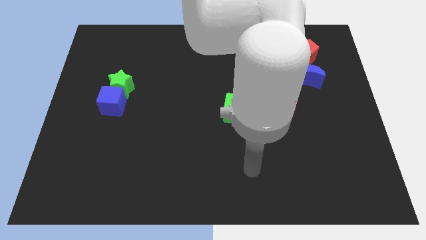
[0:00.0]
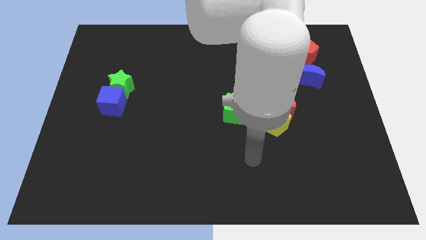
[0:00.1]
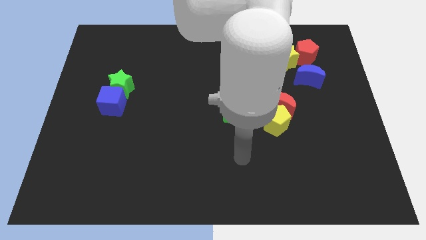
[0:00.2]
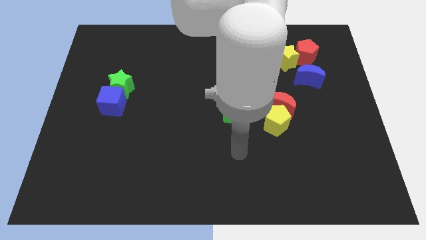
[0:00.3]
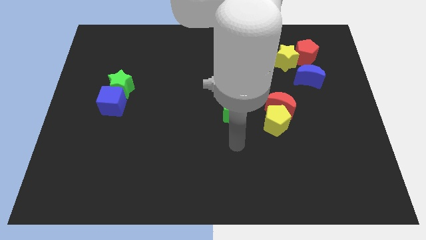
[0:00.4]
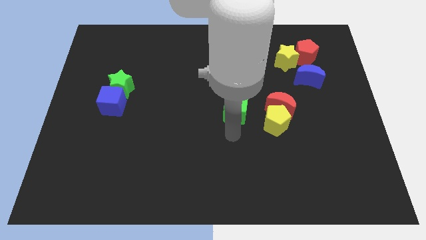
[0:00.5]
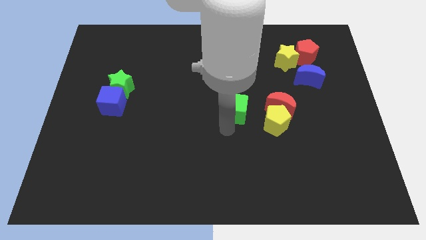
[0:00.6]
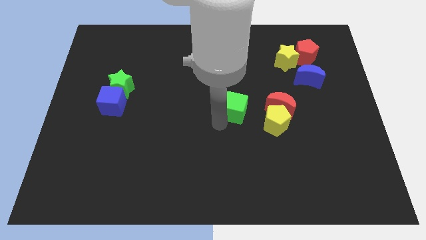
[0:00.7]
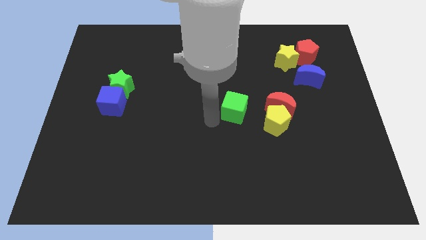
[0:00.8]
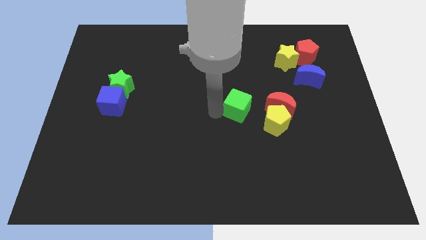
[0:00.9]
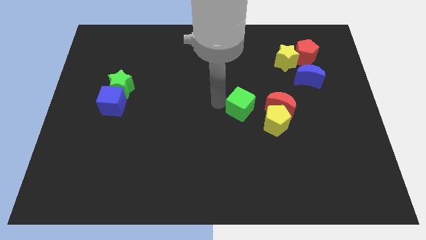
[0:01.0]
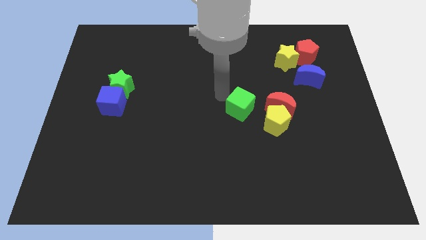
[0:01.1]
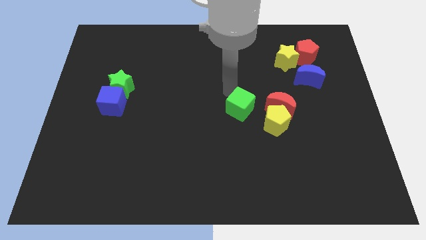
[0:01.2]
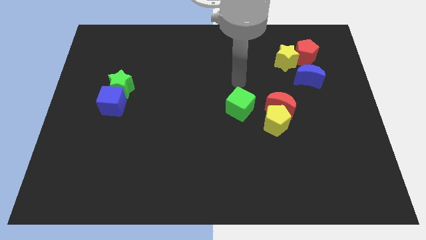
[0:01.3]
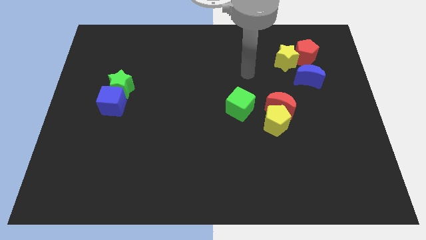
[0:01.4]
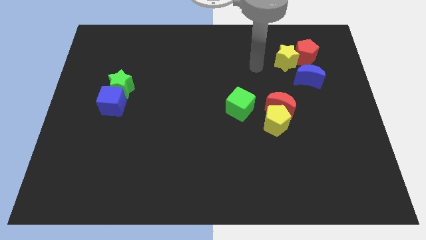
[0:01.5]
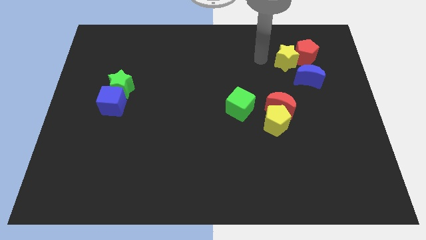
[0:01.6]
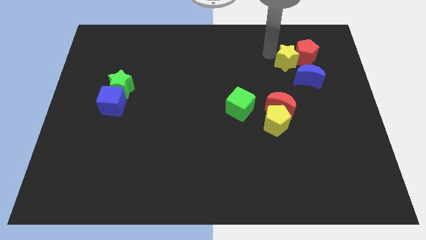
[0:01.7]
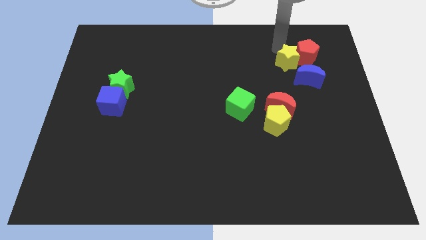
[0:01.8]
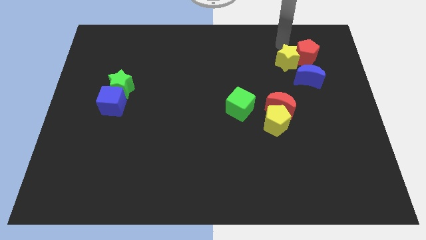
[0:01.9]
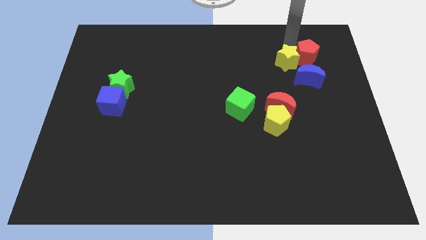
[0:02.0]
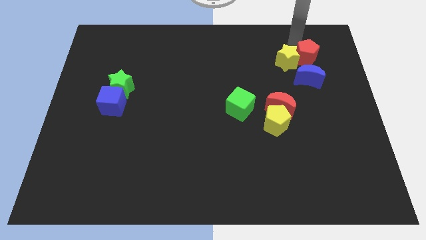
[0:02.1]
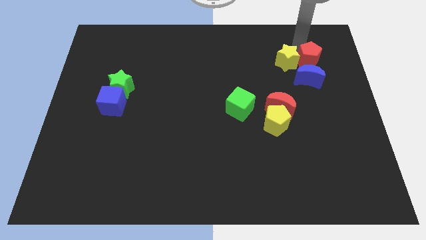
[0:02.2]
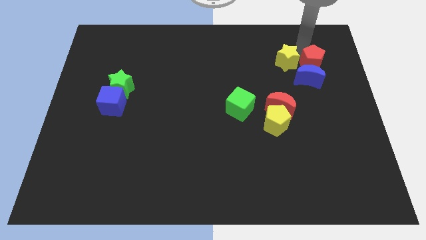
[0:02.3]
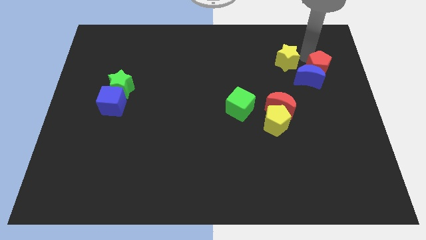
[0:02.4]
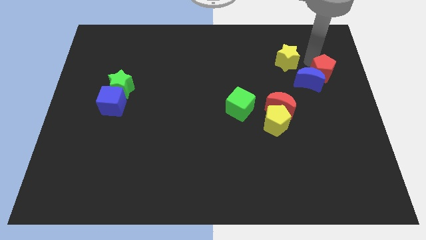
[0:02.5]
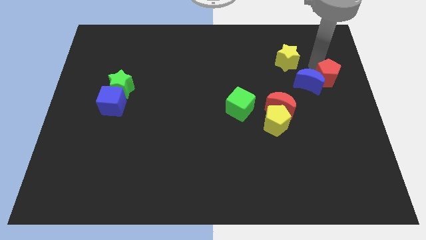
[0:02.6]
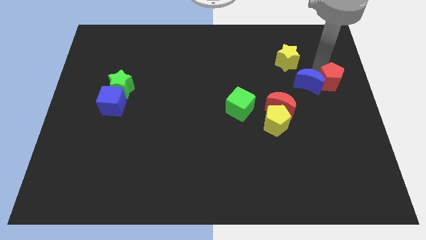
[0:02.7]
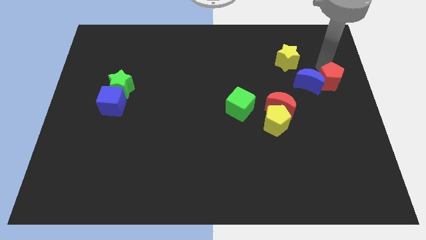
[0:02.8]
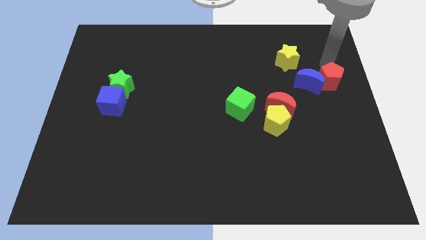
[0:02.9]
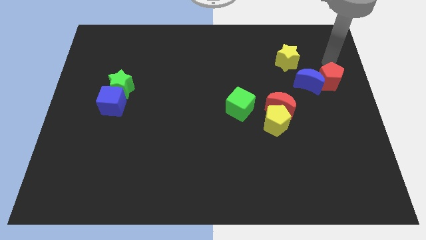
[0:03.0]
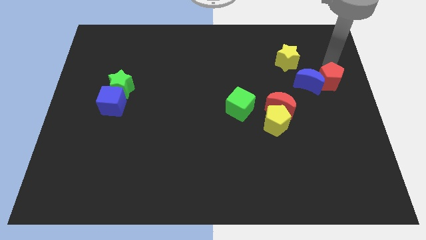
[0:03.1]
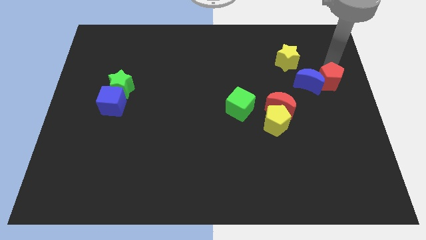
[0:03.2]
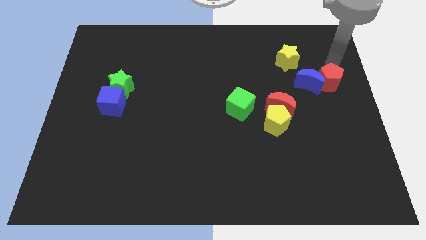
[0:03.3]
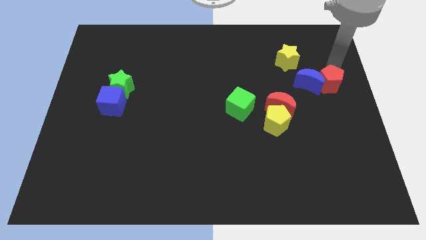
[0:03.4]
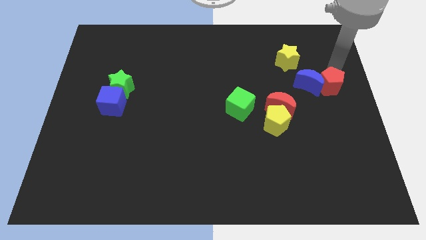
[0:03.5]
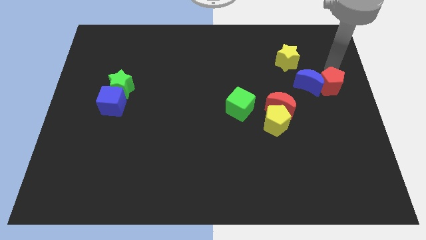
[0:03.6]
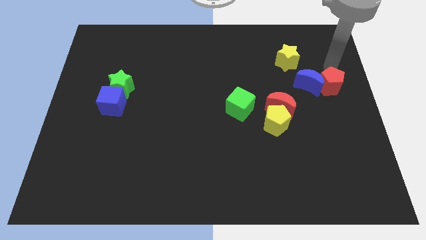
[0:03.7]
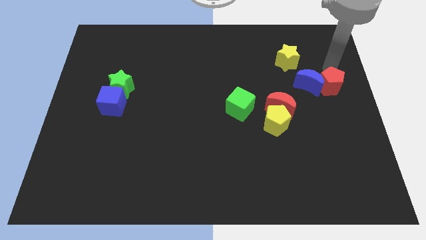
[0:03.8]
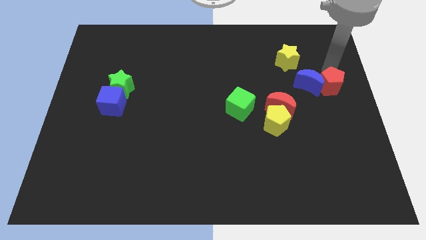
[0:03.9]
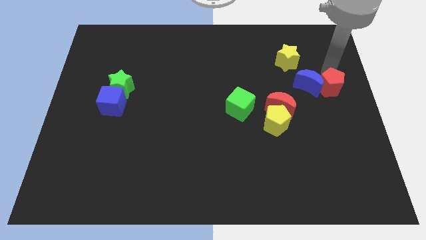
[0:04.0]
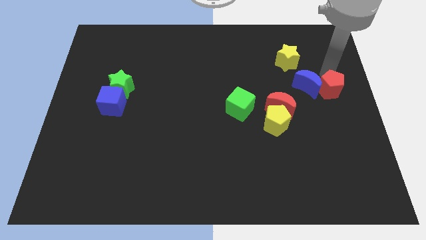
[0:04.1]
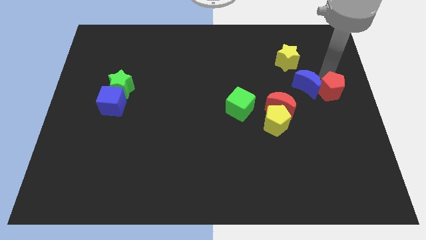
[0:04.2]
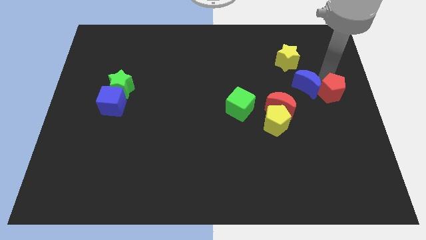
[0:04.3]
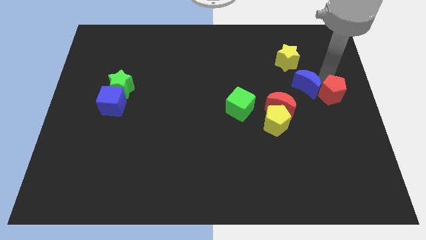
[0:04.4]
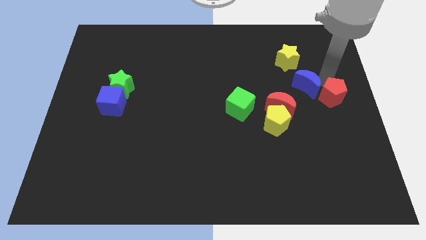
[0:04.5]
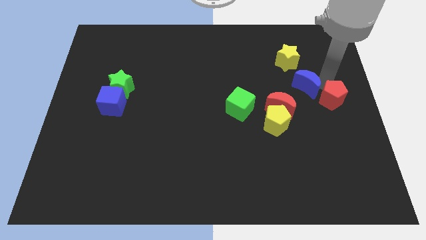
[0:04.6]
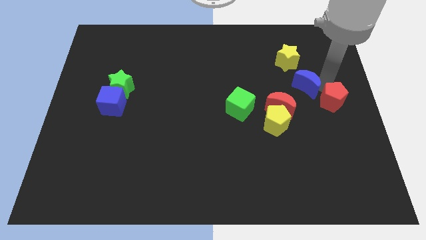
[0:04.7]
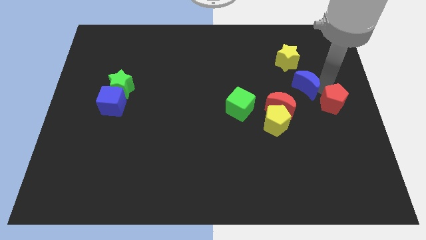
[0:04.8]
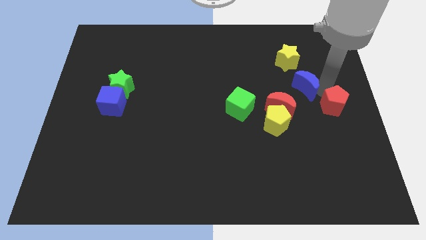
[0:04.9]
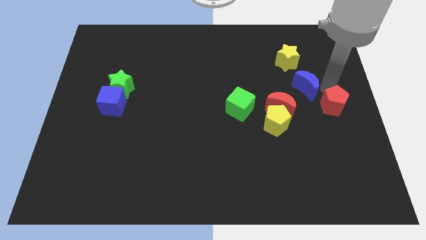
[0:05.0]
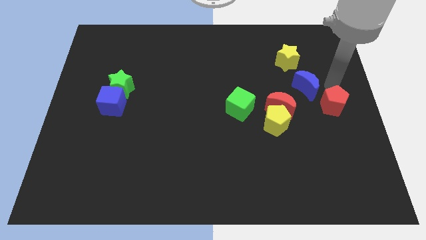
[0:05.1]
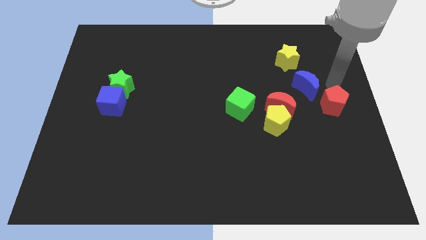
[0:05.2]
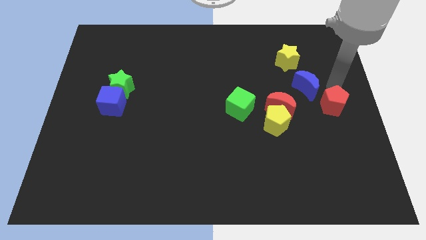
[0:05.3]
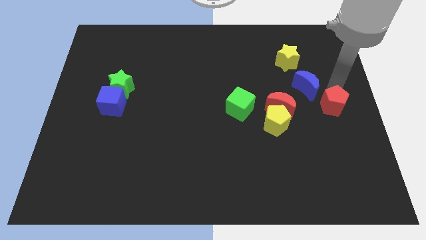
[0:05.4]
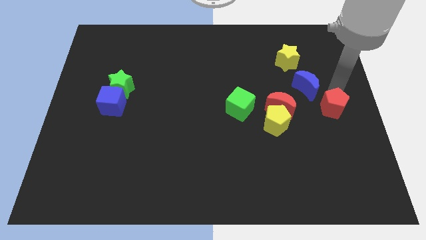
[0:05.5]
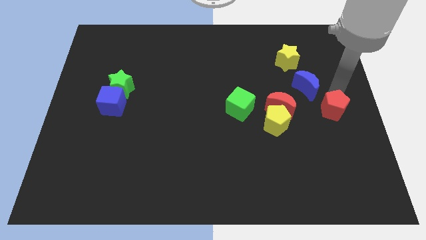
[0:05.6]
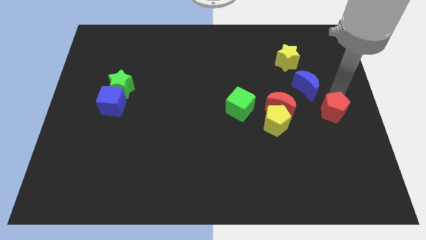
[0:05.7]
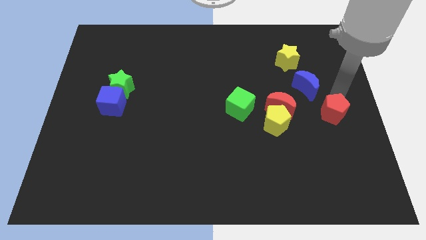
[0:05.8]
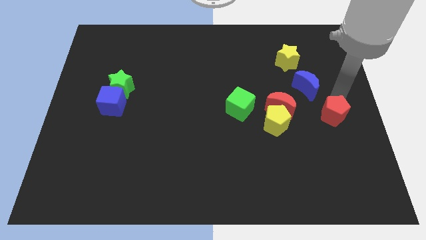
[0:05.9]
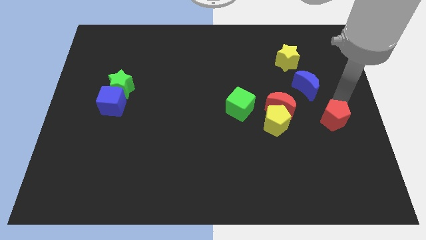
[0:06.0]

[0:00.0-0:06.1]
push the red pentagon downwards

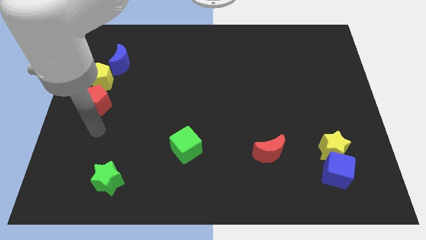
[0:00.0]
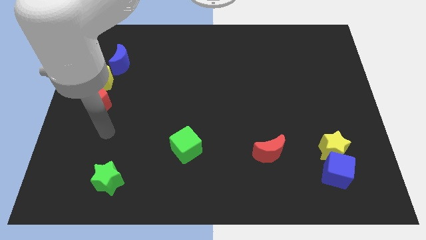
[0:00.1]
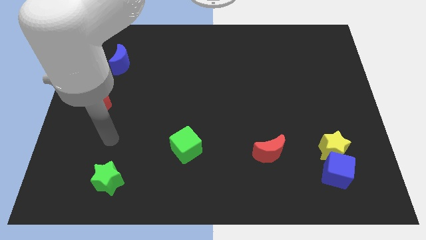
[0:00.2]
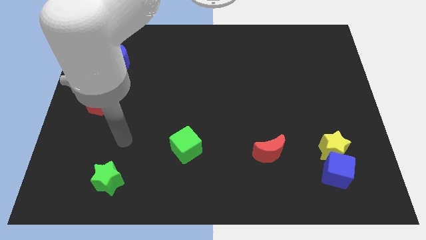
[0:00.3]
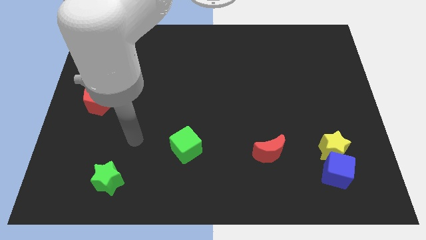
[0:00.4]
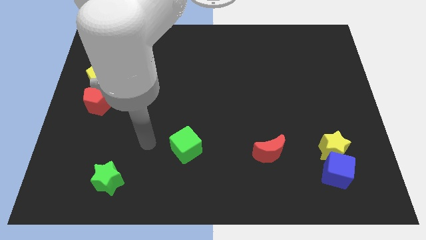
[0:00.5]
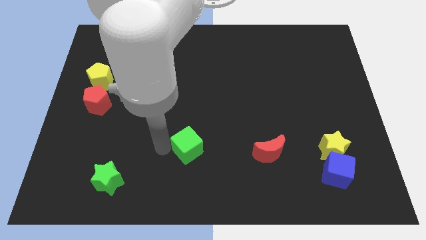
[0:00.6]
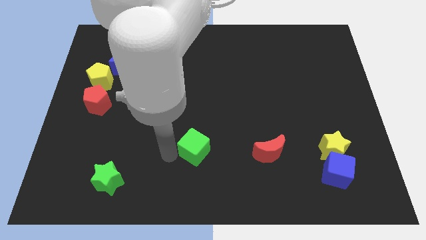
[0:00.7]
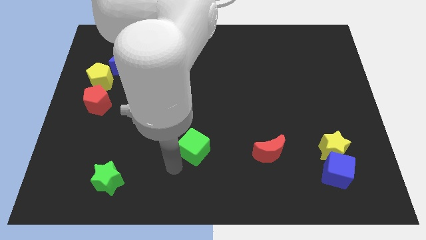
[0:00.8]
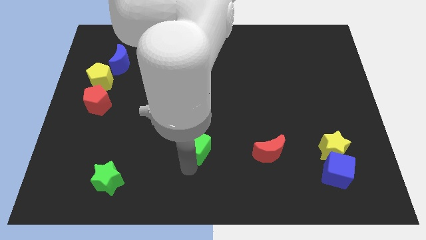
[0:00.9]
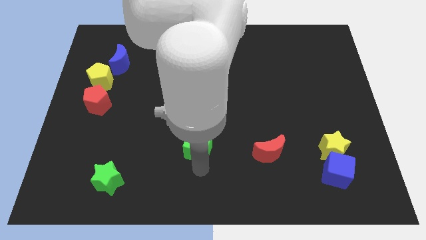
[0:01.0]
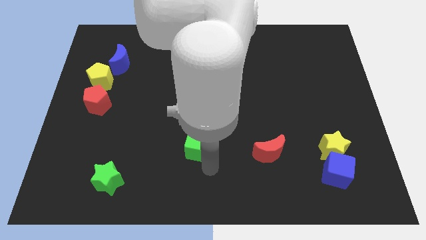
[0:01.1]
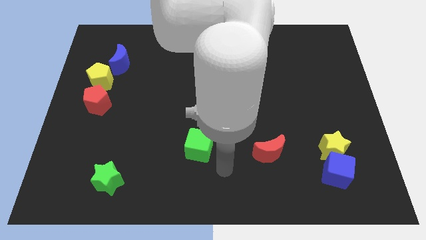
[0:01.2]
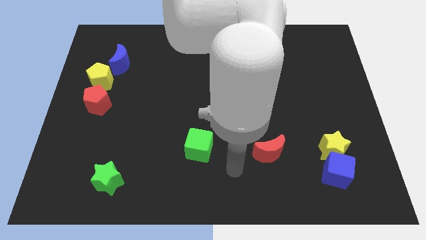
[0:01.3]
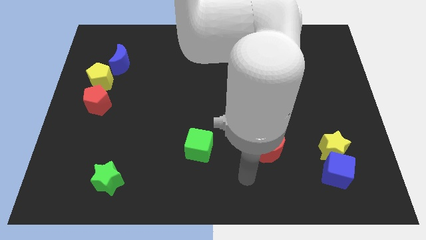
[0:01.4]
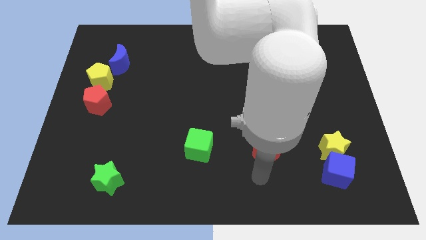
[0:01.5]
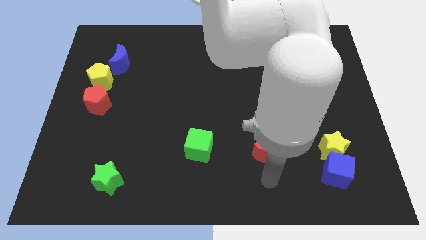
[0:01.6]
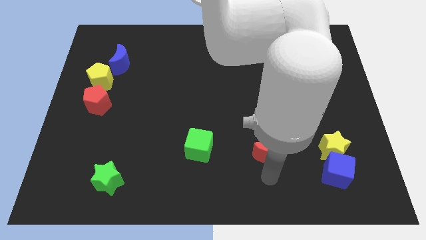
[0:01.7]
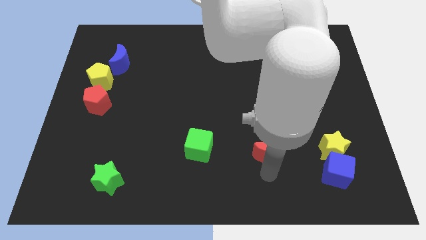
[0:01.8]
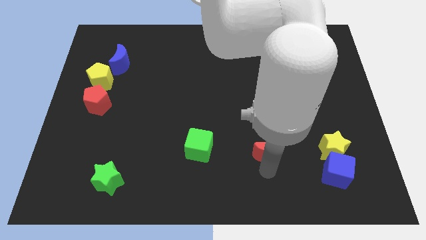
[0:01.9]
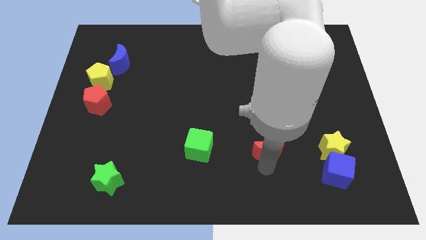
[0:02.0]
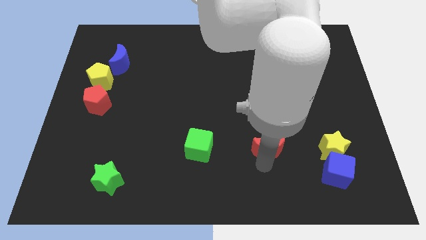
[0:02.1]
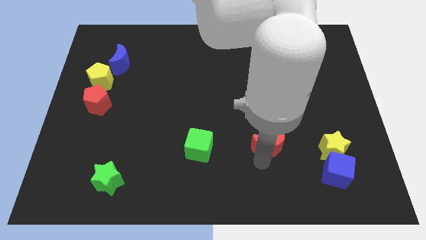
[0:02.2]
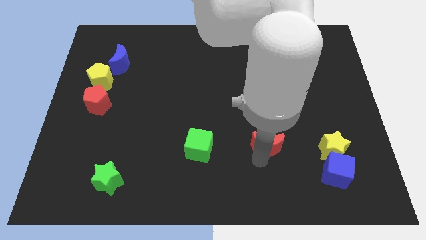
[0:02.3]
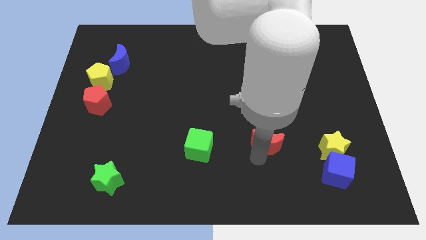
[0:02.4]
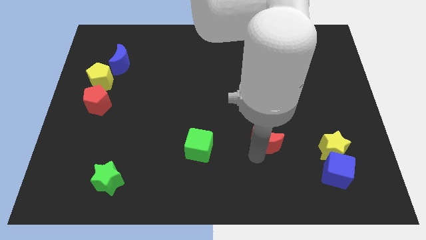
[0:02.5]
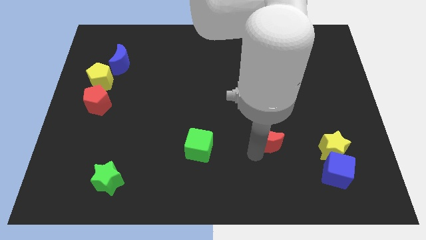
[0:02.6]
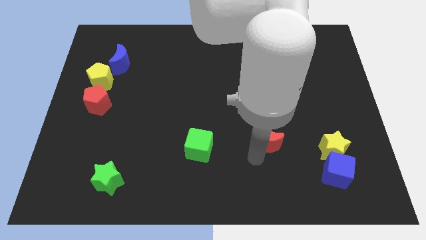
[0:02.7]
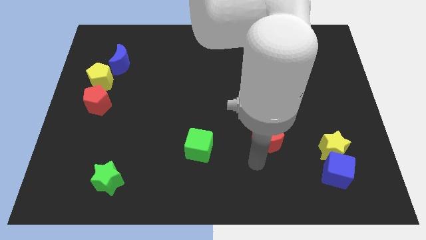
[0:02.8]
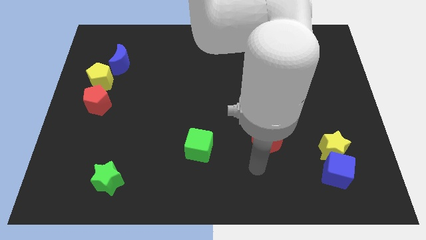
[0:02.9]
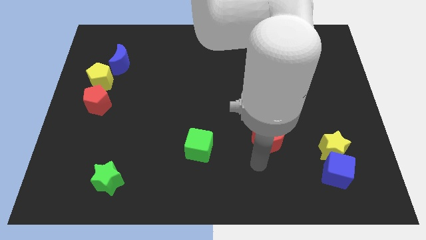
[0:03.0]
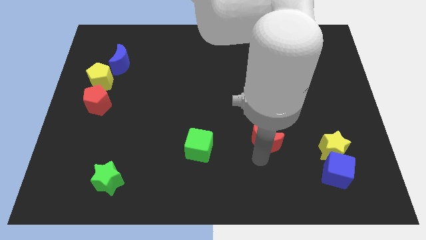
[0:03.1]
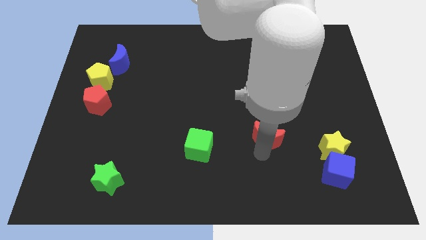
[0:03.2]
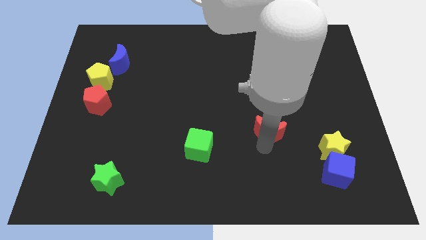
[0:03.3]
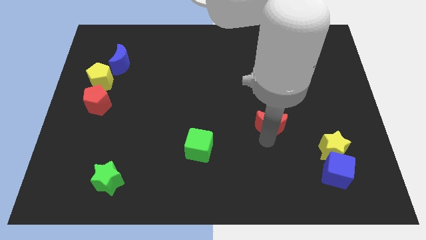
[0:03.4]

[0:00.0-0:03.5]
slide the red moon up a little
